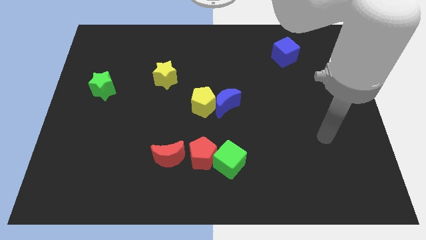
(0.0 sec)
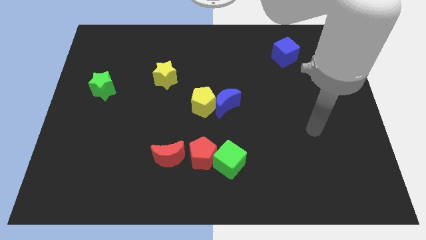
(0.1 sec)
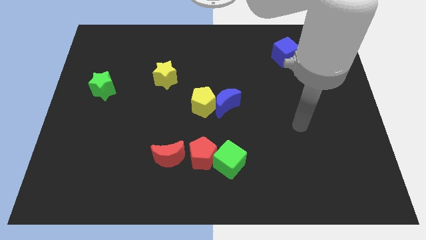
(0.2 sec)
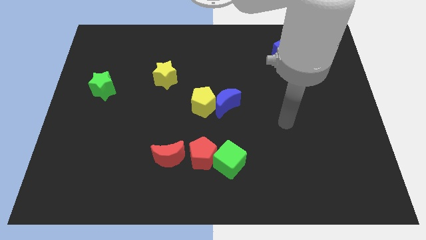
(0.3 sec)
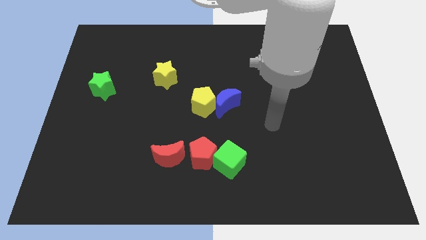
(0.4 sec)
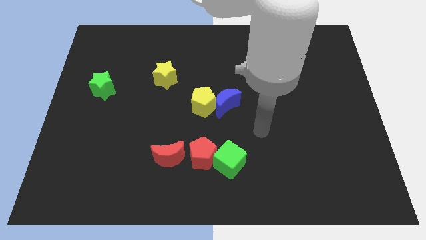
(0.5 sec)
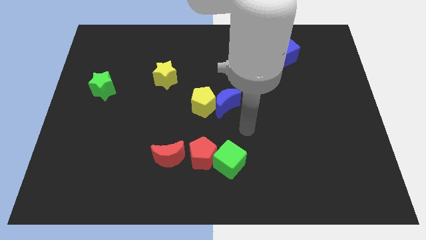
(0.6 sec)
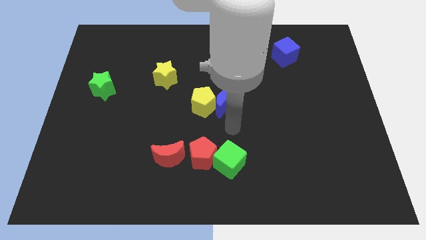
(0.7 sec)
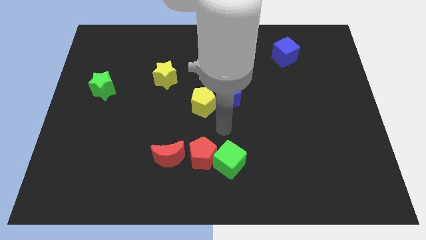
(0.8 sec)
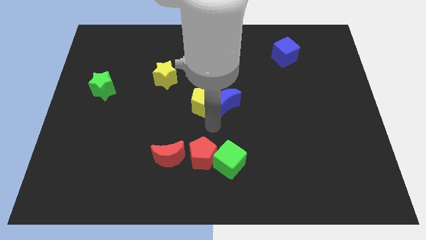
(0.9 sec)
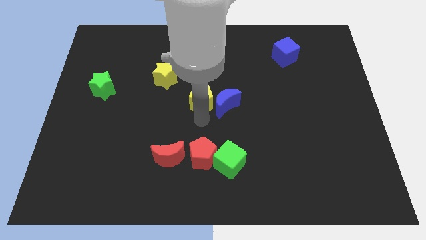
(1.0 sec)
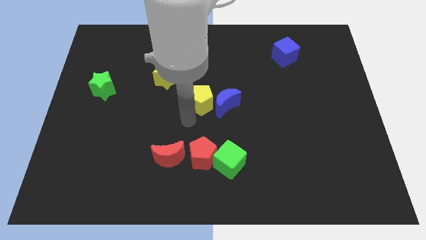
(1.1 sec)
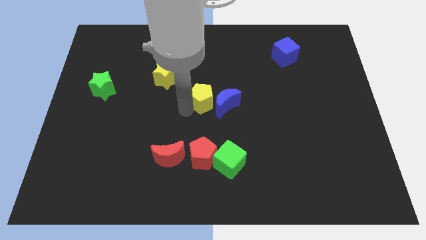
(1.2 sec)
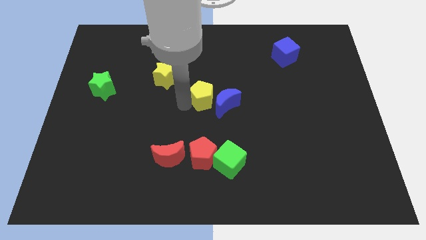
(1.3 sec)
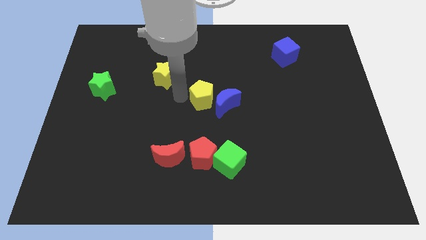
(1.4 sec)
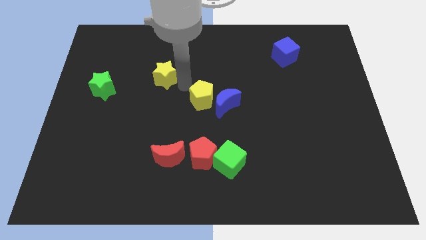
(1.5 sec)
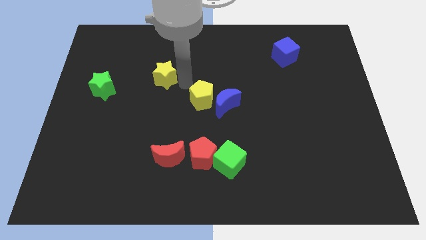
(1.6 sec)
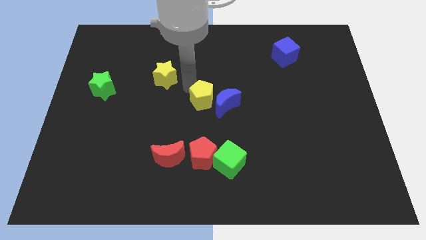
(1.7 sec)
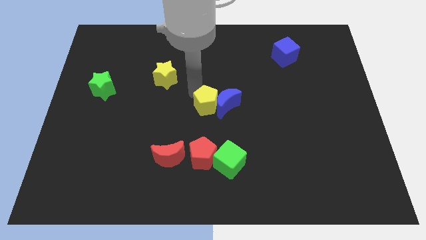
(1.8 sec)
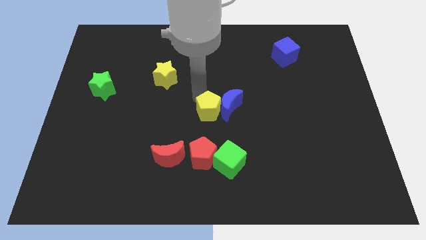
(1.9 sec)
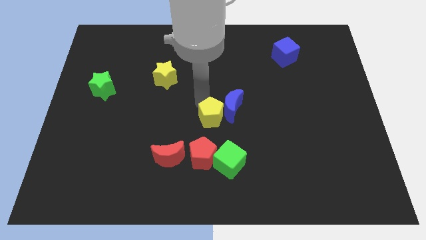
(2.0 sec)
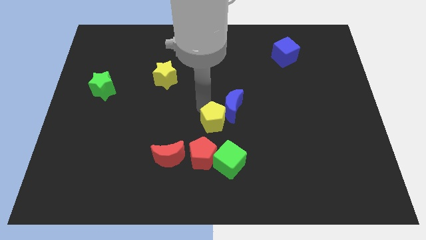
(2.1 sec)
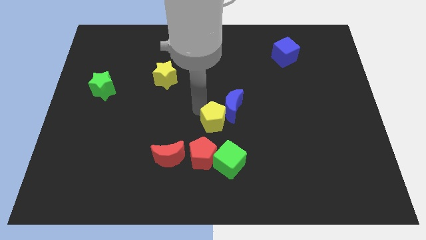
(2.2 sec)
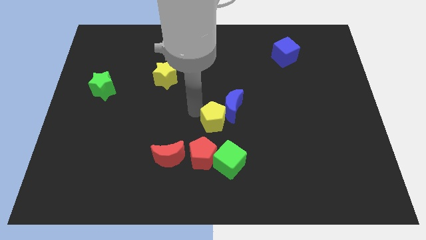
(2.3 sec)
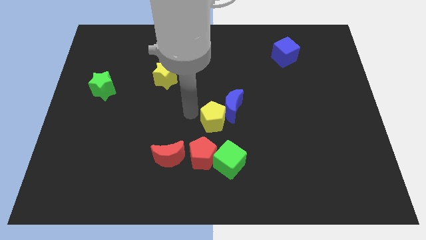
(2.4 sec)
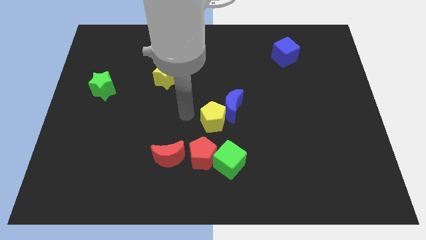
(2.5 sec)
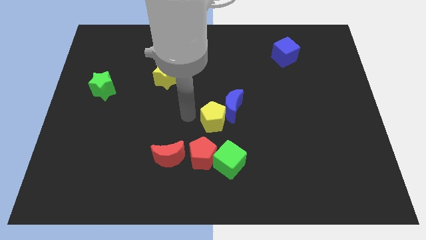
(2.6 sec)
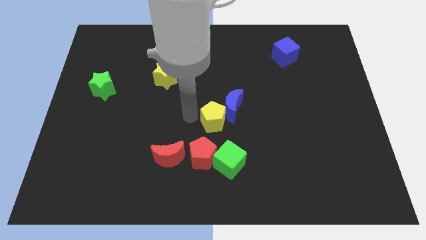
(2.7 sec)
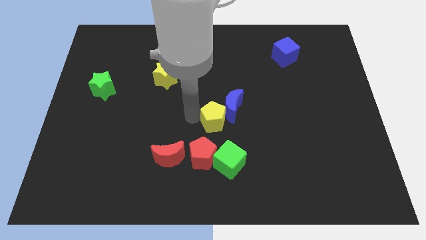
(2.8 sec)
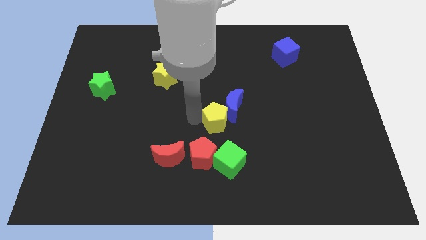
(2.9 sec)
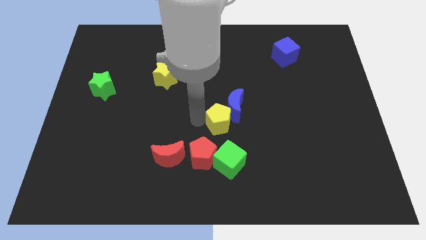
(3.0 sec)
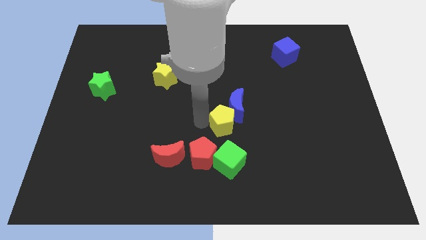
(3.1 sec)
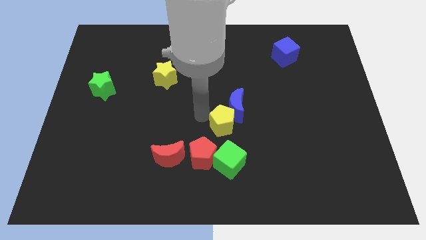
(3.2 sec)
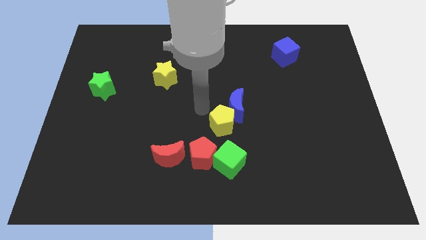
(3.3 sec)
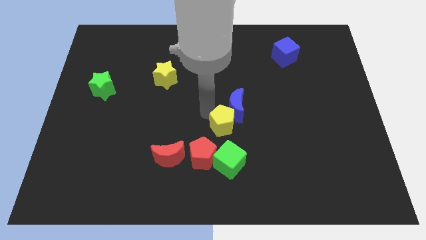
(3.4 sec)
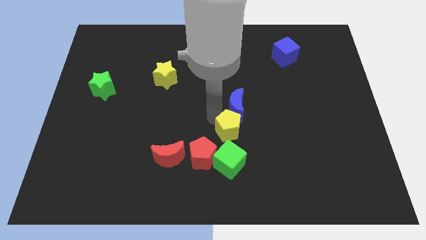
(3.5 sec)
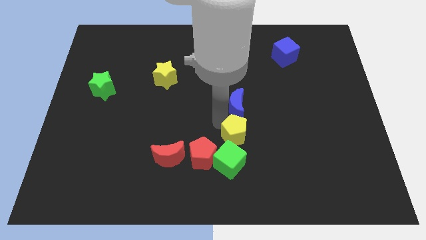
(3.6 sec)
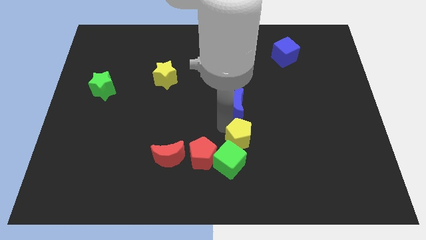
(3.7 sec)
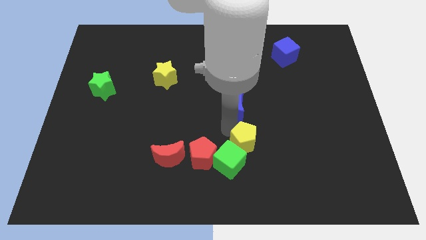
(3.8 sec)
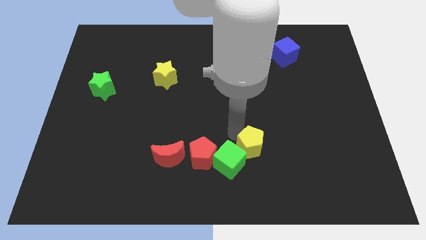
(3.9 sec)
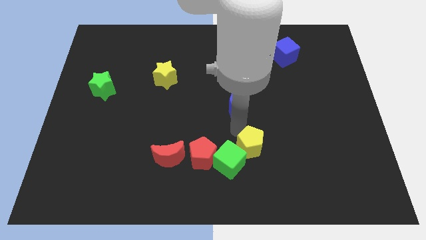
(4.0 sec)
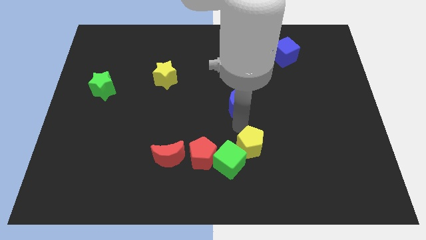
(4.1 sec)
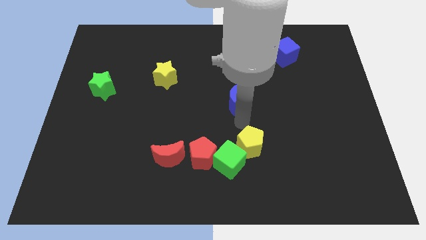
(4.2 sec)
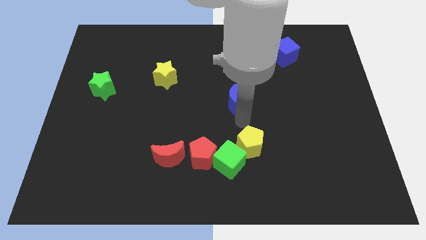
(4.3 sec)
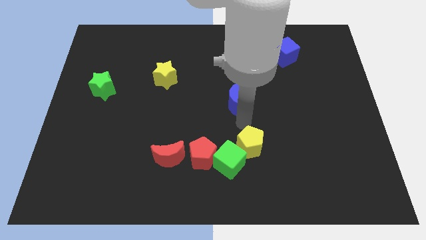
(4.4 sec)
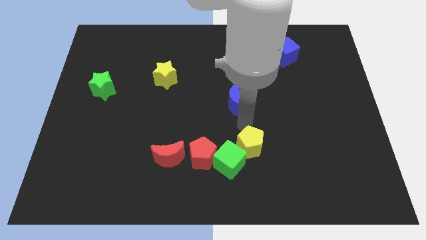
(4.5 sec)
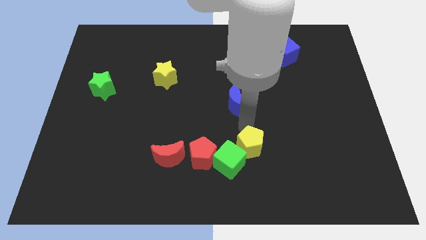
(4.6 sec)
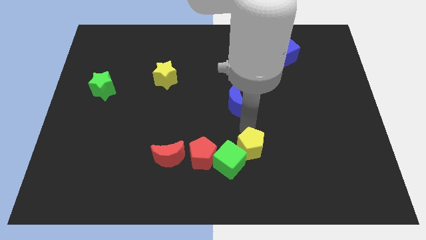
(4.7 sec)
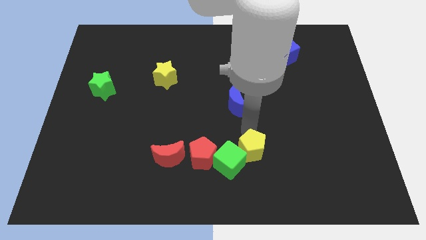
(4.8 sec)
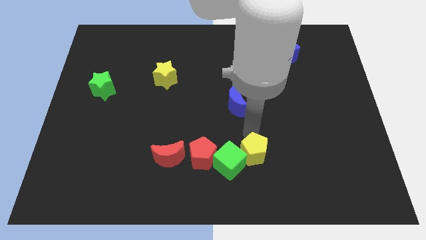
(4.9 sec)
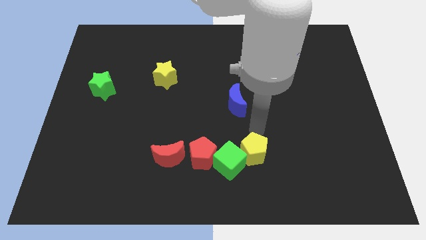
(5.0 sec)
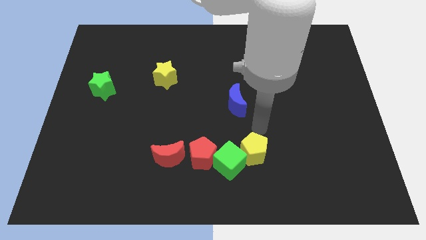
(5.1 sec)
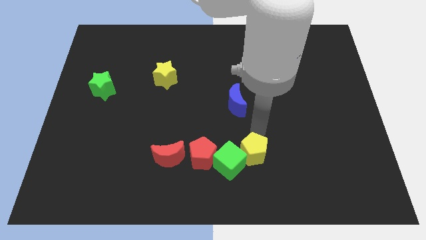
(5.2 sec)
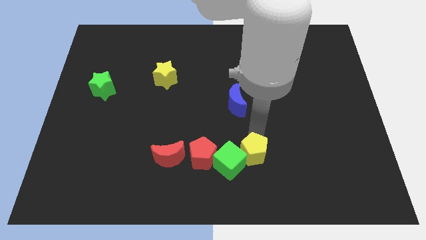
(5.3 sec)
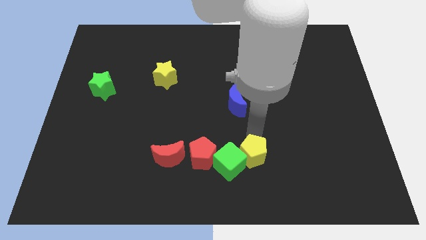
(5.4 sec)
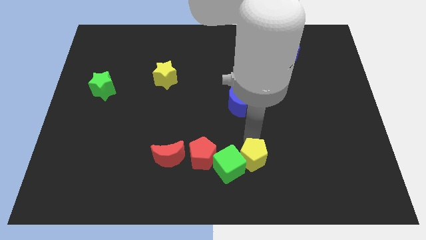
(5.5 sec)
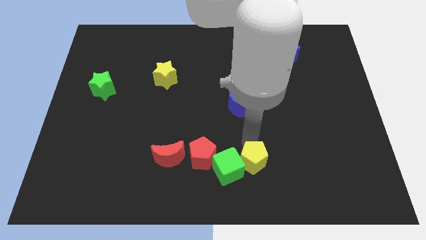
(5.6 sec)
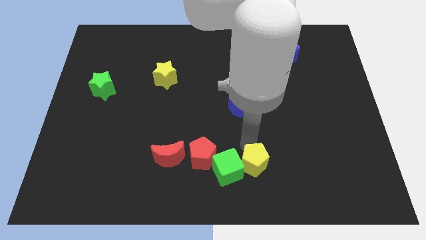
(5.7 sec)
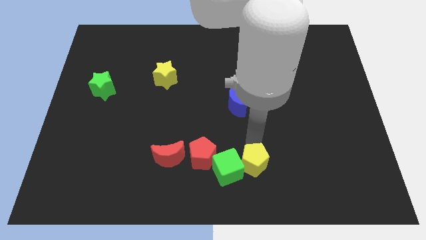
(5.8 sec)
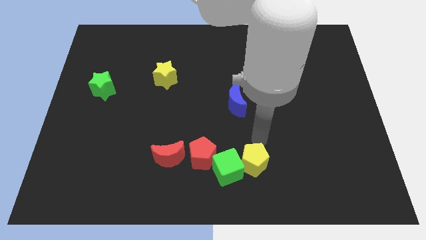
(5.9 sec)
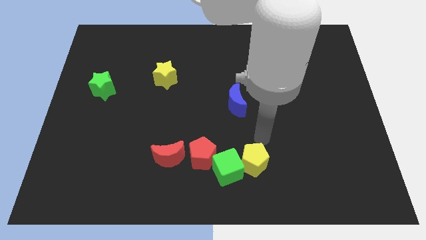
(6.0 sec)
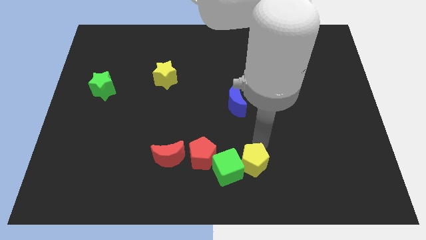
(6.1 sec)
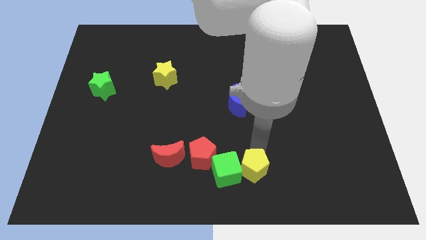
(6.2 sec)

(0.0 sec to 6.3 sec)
slide the yellow pentagon to the bottom side

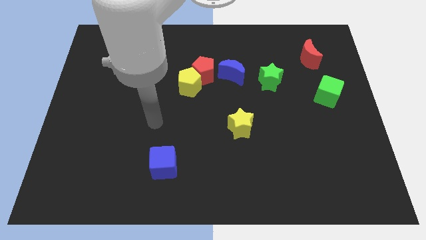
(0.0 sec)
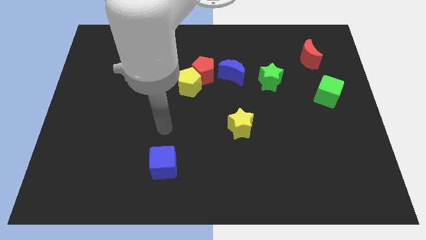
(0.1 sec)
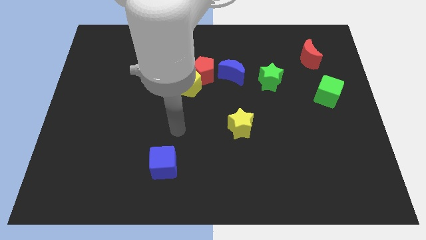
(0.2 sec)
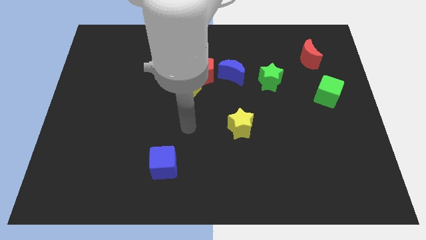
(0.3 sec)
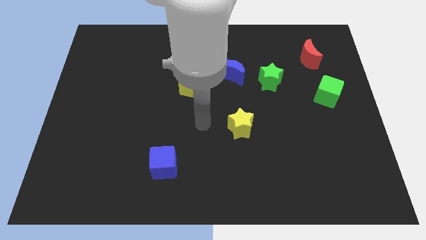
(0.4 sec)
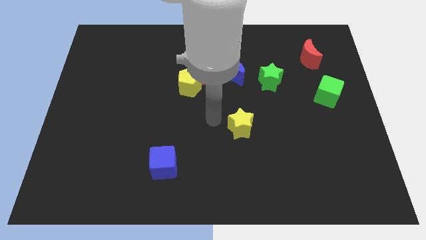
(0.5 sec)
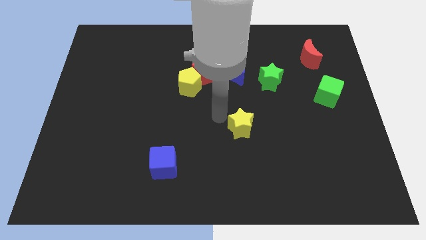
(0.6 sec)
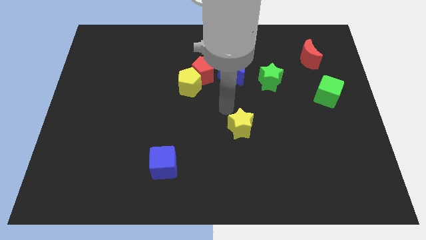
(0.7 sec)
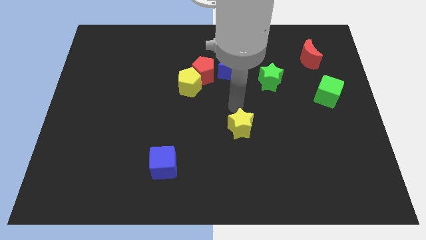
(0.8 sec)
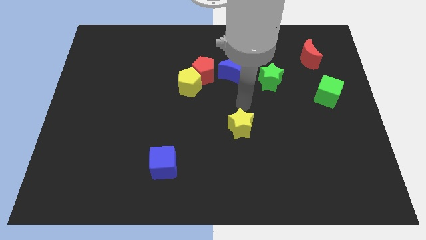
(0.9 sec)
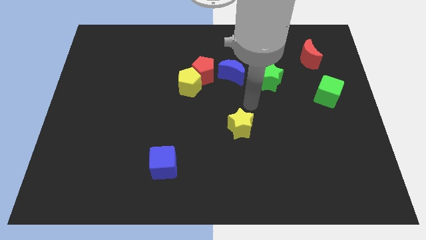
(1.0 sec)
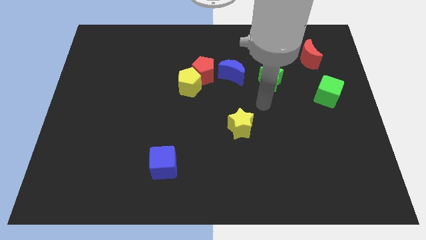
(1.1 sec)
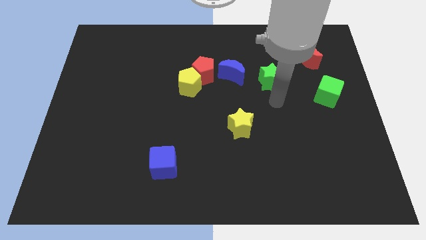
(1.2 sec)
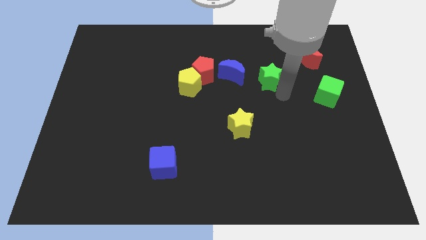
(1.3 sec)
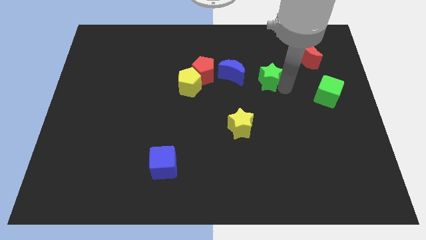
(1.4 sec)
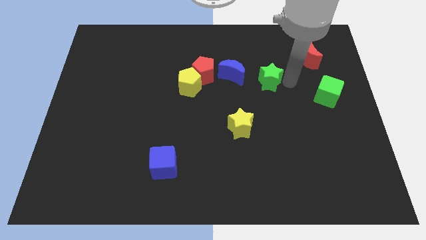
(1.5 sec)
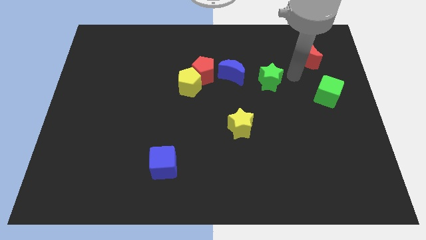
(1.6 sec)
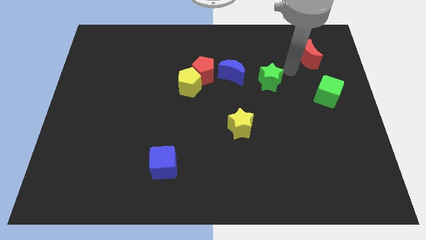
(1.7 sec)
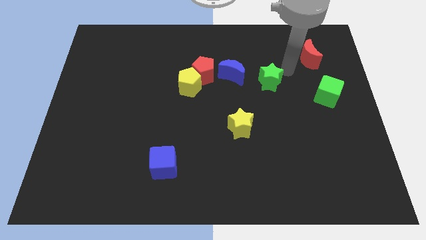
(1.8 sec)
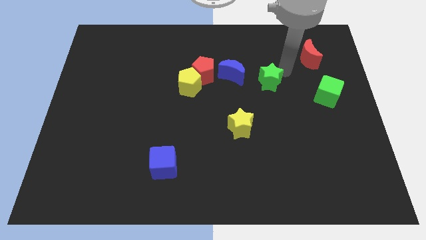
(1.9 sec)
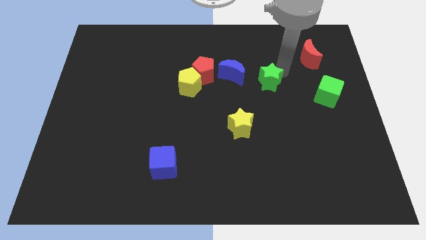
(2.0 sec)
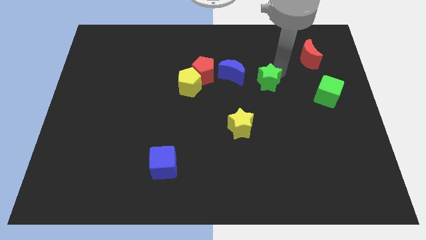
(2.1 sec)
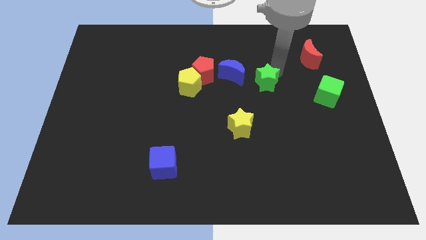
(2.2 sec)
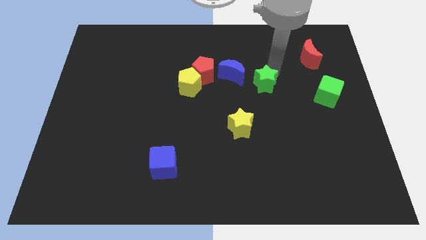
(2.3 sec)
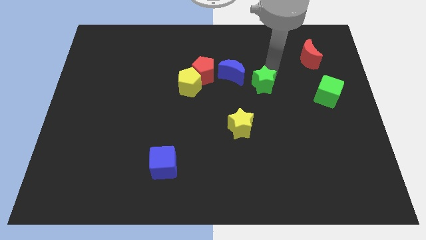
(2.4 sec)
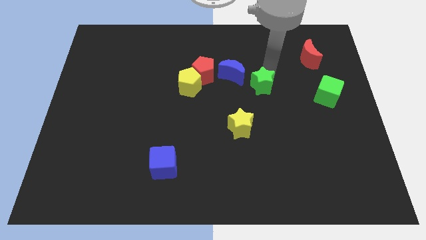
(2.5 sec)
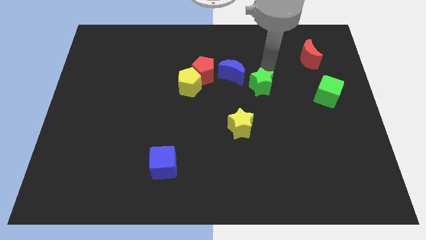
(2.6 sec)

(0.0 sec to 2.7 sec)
slide the green star to the center of the board
